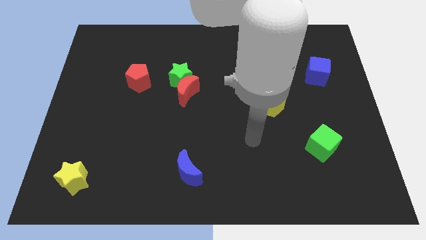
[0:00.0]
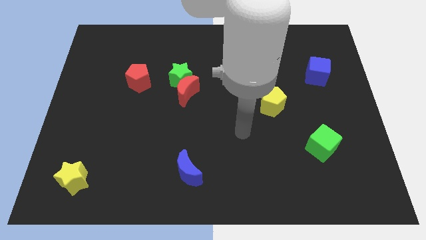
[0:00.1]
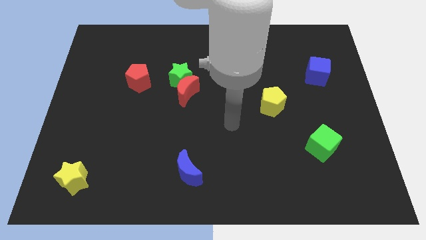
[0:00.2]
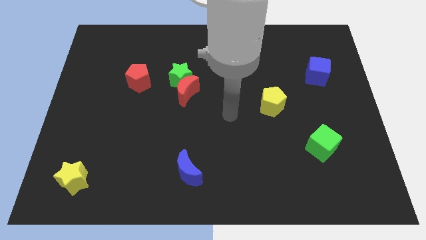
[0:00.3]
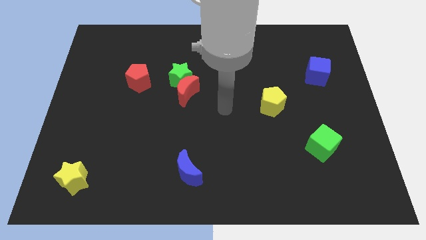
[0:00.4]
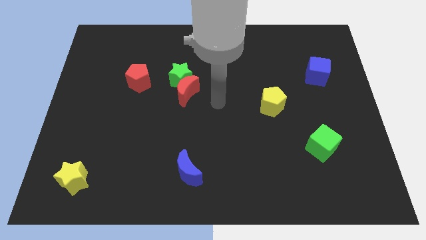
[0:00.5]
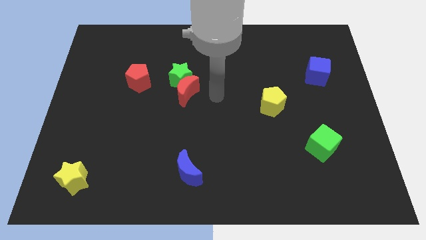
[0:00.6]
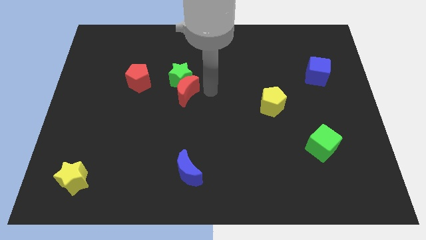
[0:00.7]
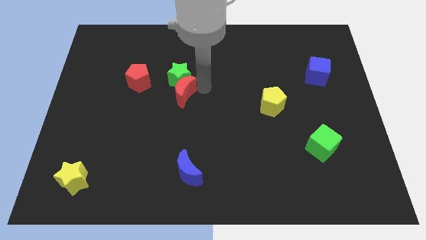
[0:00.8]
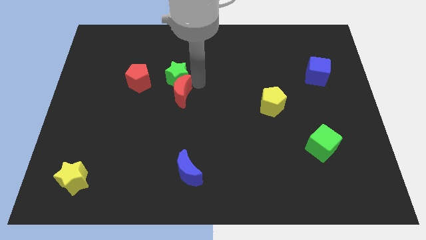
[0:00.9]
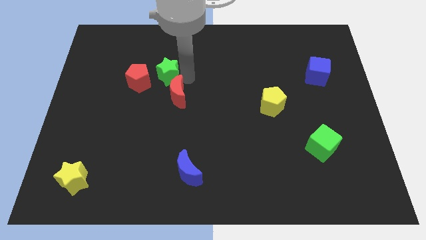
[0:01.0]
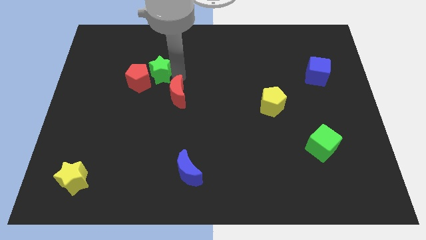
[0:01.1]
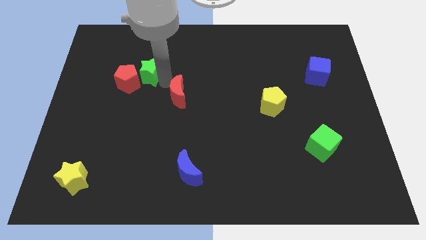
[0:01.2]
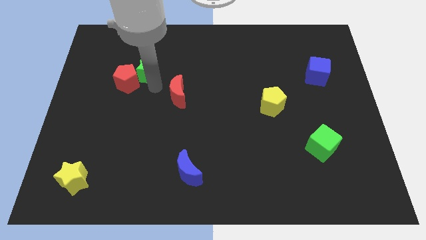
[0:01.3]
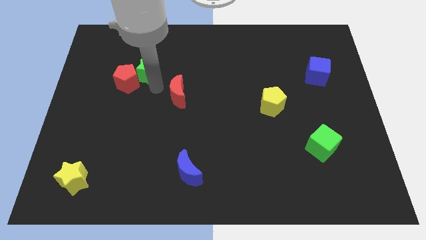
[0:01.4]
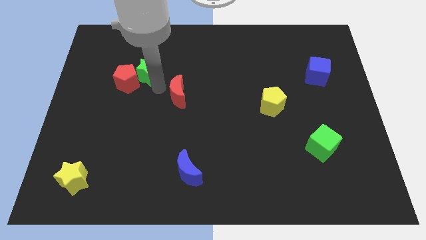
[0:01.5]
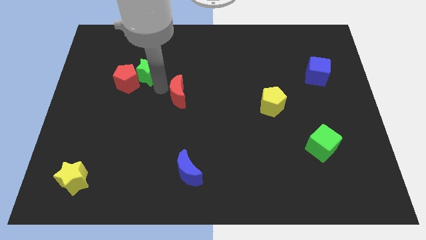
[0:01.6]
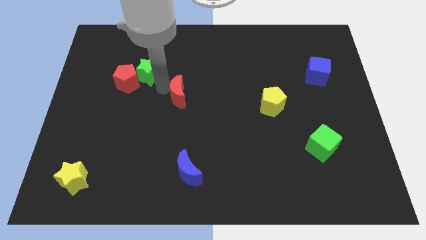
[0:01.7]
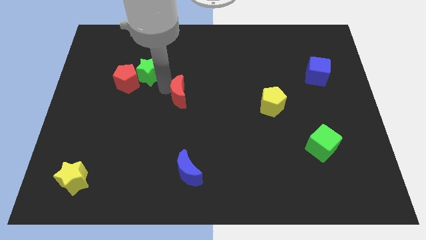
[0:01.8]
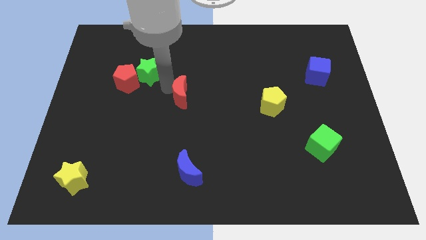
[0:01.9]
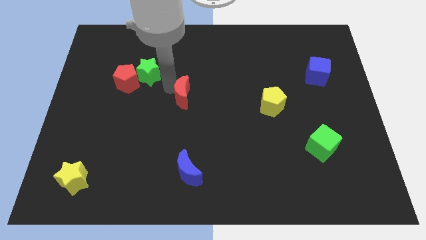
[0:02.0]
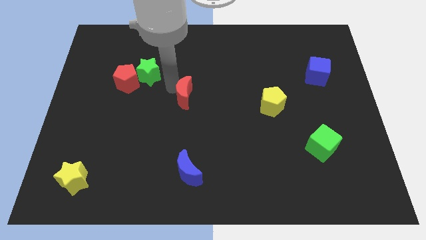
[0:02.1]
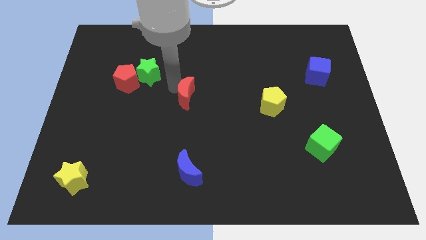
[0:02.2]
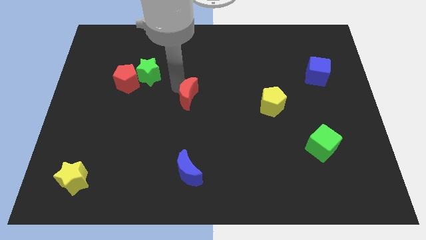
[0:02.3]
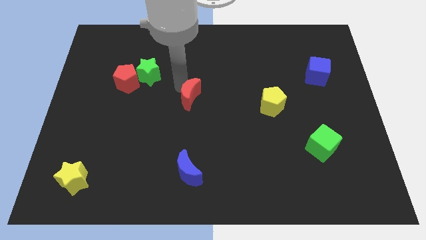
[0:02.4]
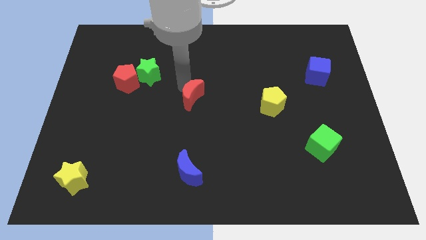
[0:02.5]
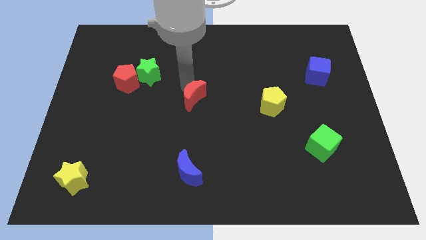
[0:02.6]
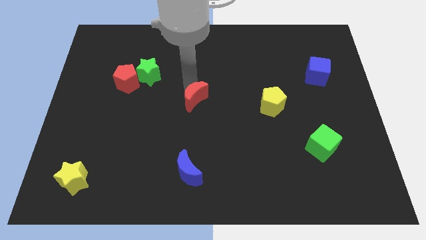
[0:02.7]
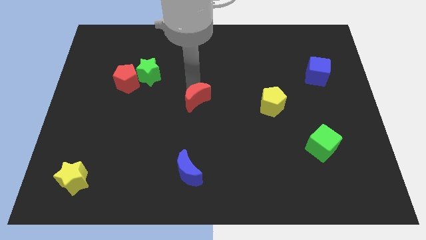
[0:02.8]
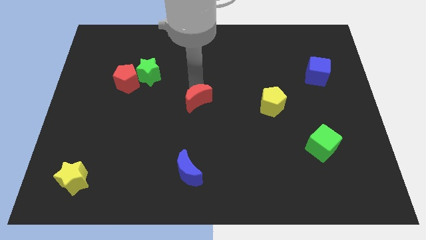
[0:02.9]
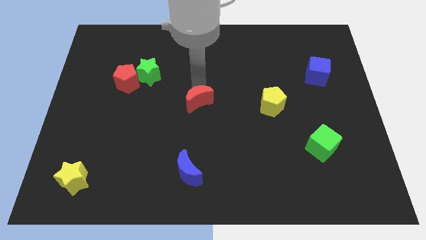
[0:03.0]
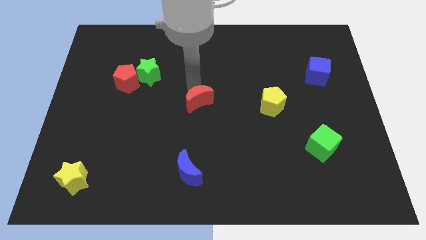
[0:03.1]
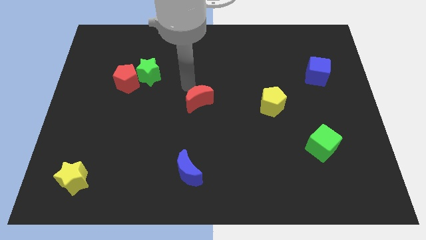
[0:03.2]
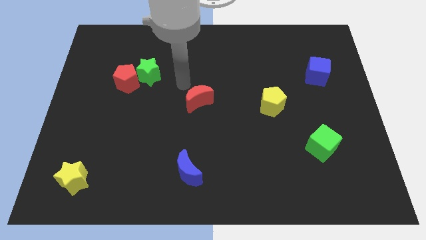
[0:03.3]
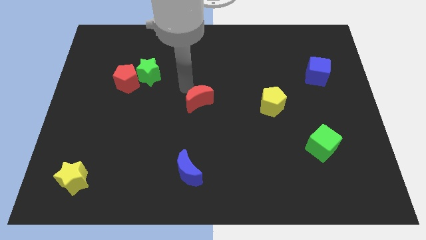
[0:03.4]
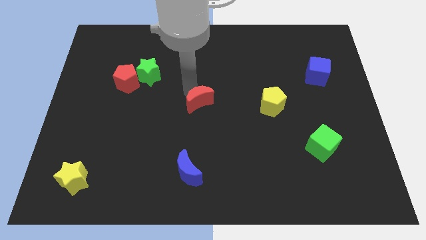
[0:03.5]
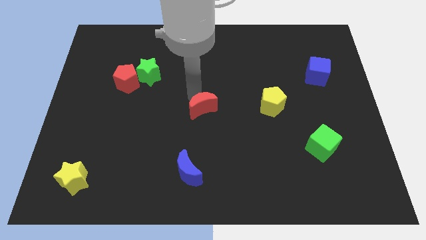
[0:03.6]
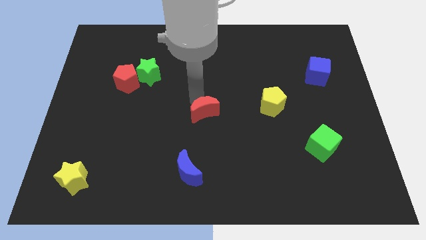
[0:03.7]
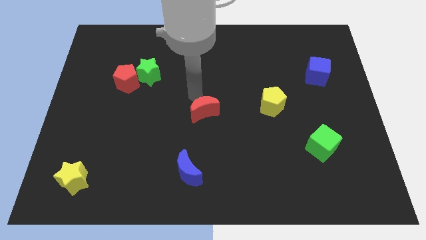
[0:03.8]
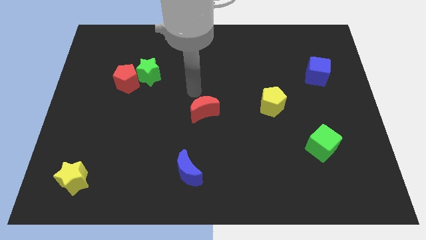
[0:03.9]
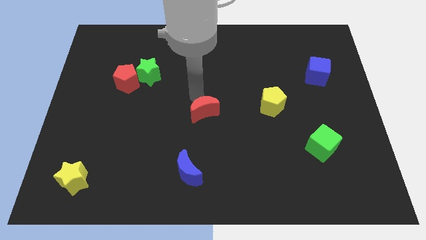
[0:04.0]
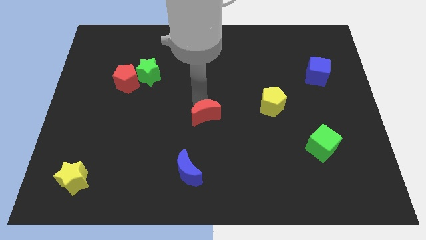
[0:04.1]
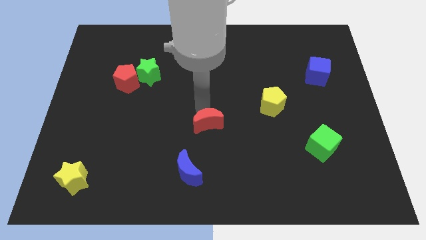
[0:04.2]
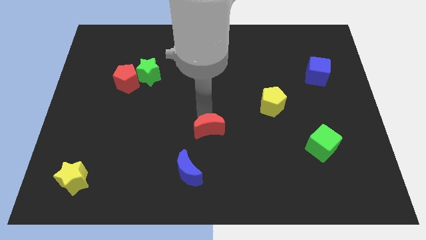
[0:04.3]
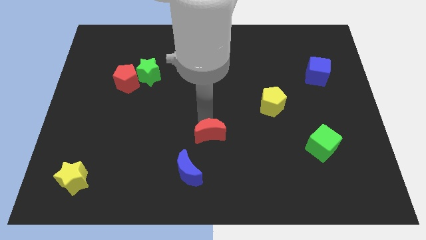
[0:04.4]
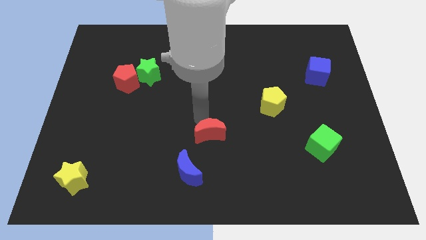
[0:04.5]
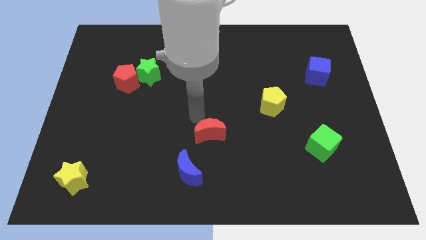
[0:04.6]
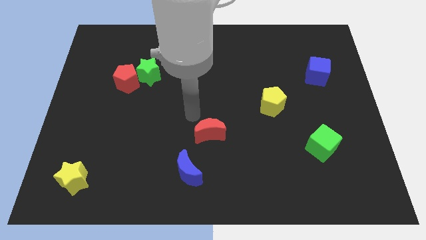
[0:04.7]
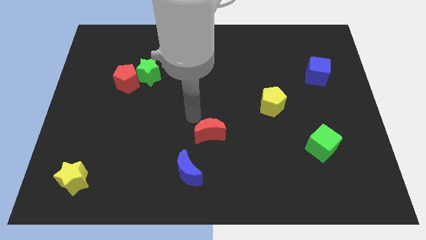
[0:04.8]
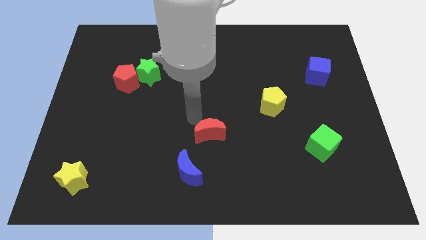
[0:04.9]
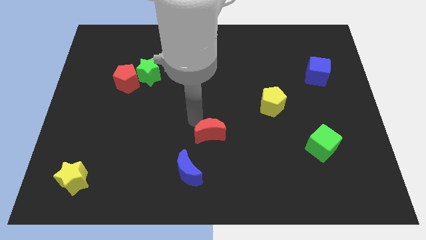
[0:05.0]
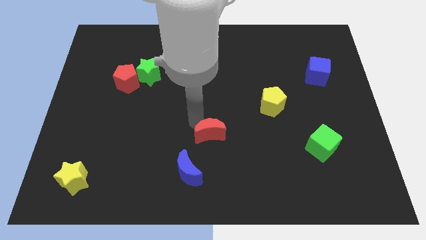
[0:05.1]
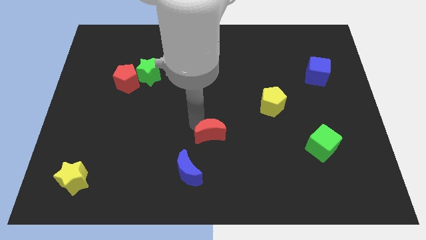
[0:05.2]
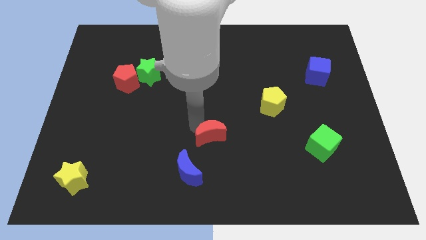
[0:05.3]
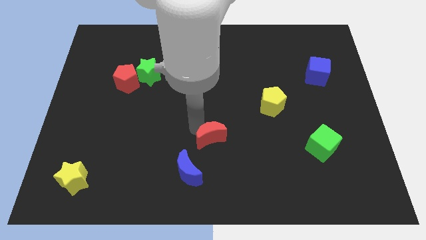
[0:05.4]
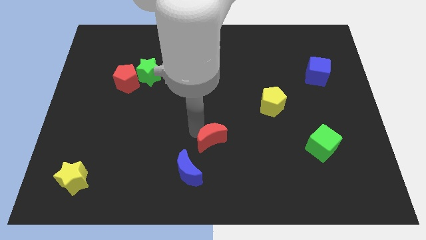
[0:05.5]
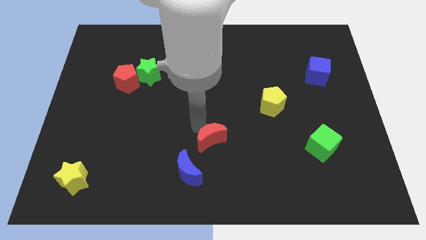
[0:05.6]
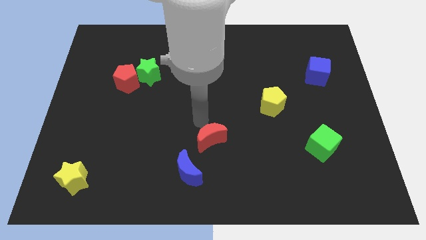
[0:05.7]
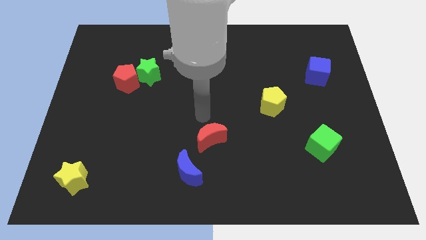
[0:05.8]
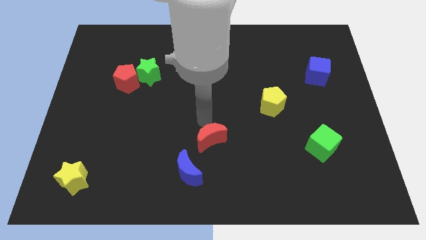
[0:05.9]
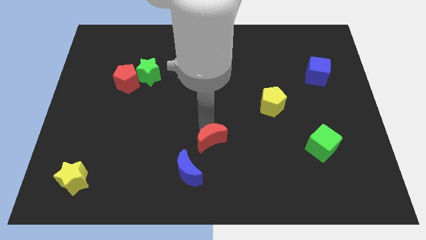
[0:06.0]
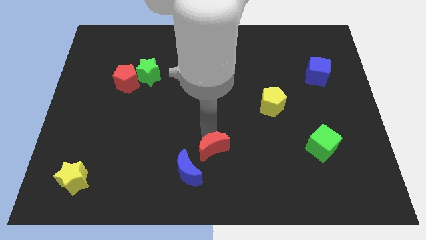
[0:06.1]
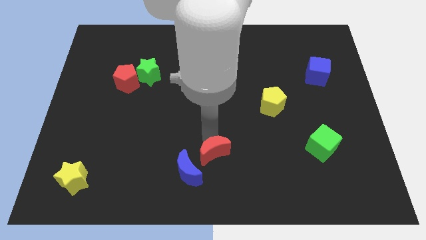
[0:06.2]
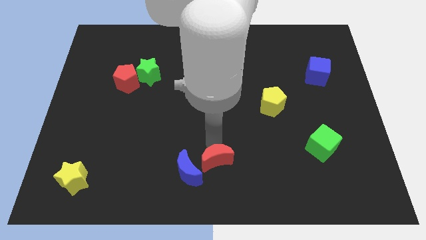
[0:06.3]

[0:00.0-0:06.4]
put the red moon to the bottom
